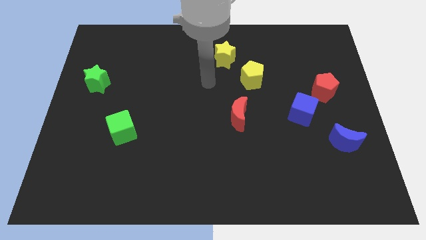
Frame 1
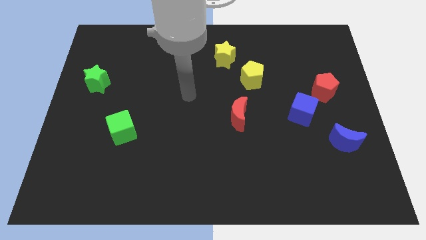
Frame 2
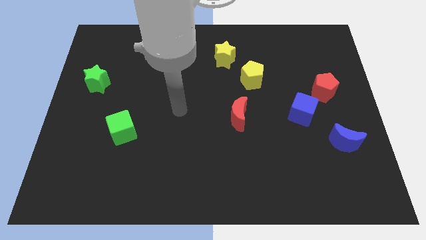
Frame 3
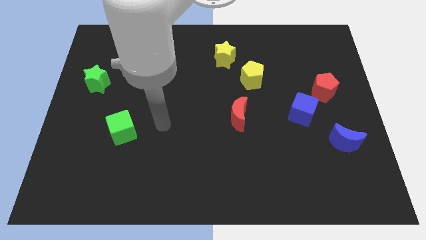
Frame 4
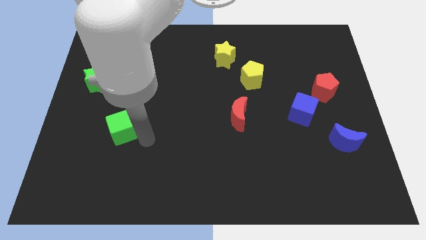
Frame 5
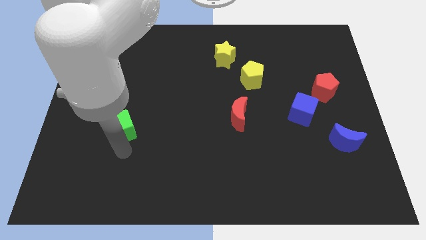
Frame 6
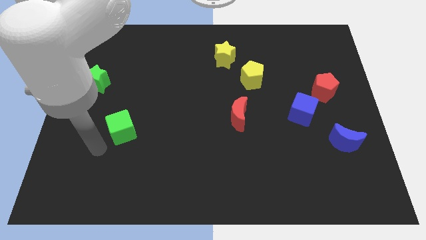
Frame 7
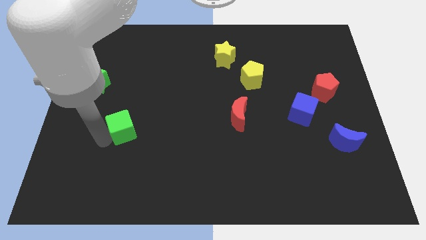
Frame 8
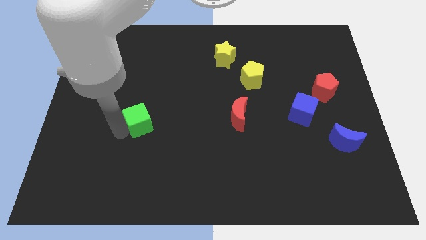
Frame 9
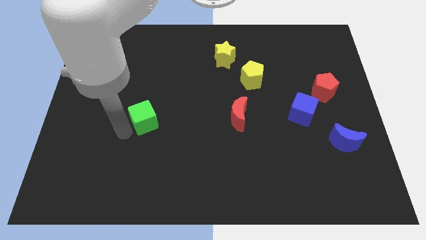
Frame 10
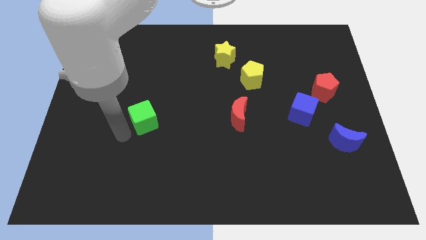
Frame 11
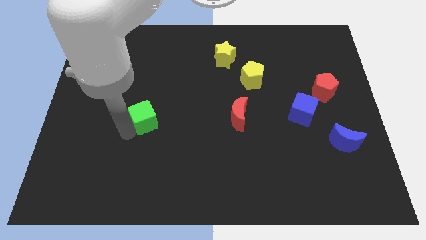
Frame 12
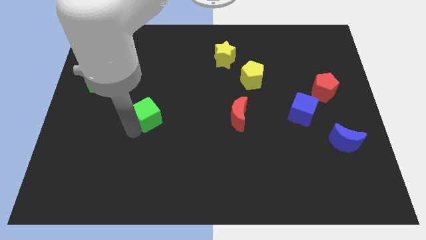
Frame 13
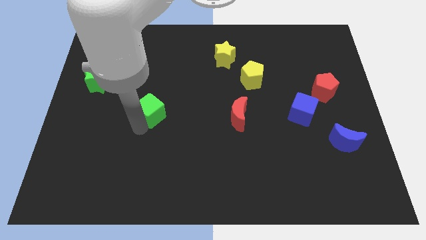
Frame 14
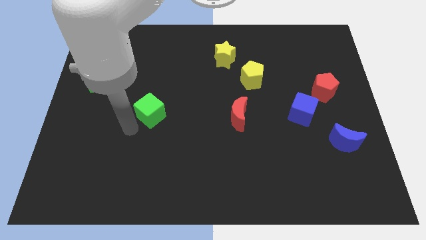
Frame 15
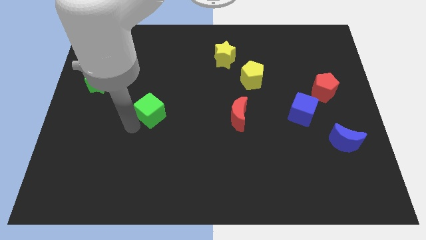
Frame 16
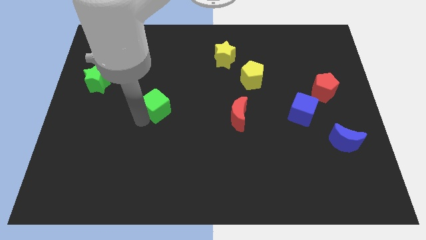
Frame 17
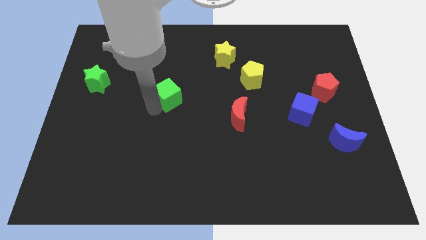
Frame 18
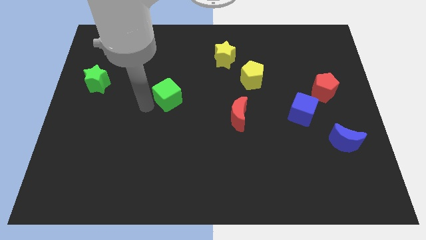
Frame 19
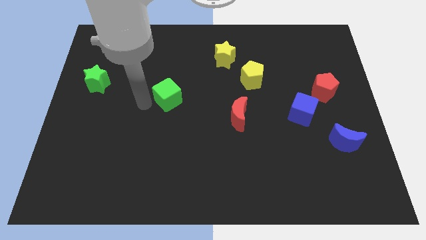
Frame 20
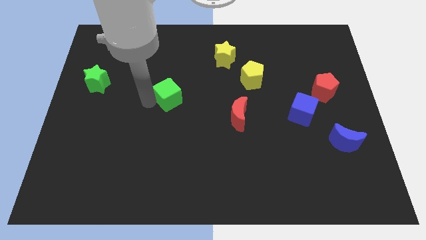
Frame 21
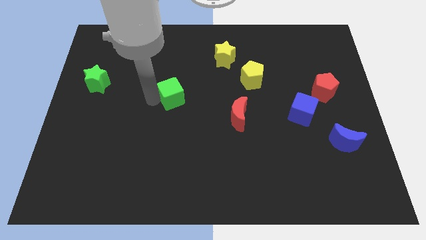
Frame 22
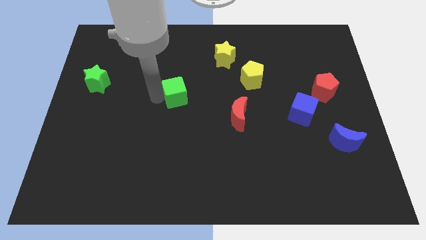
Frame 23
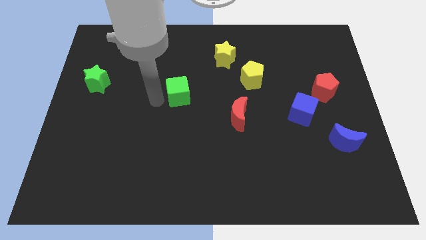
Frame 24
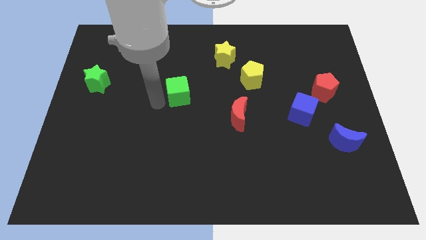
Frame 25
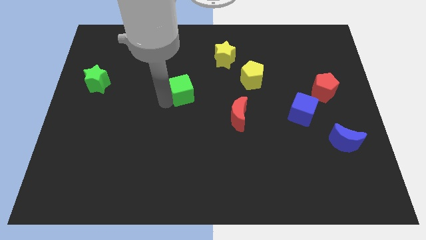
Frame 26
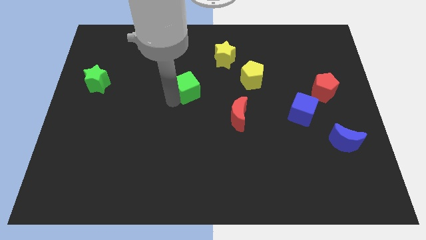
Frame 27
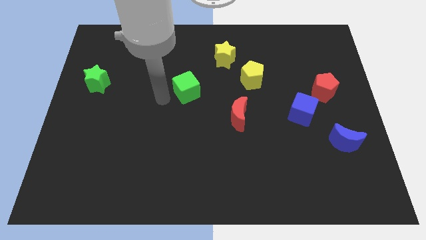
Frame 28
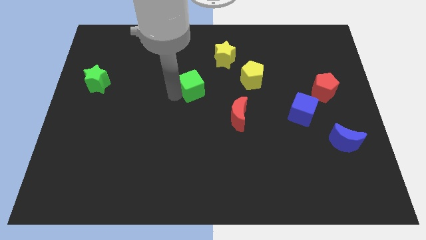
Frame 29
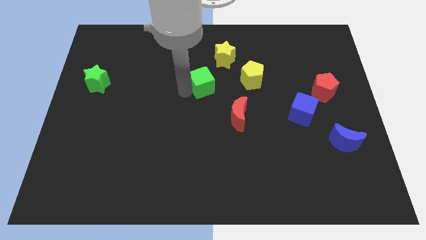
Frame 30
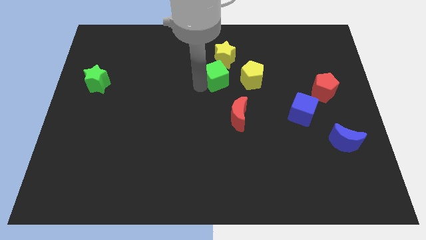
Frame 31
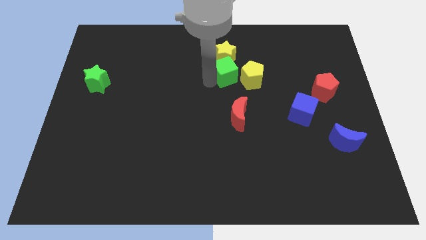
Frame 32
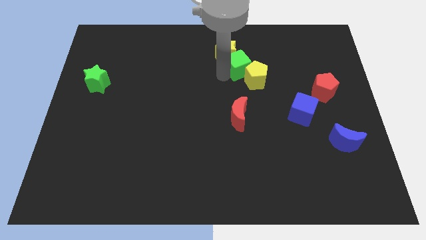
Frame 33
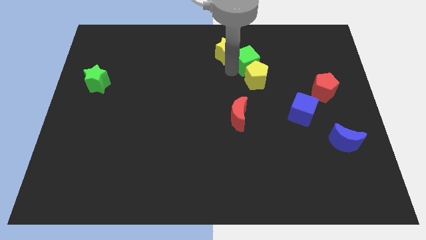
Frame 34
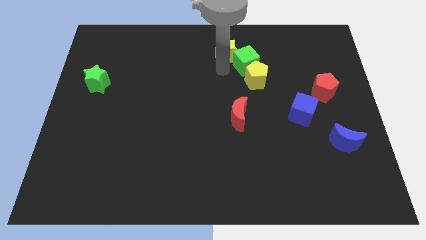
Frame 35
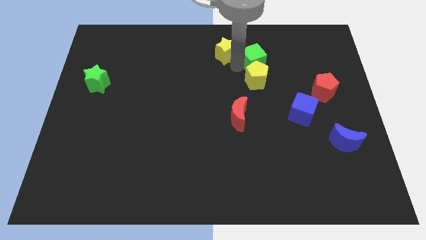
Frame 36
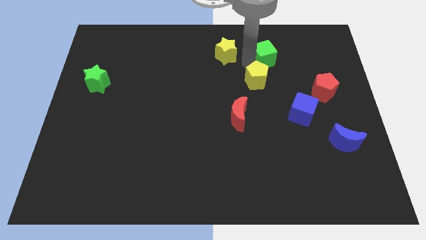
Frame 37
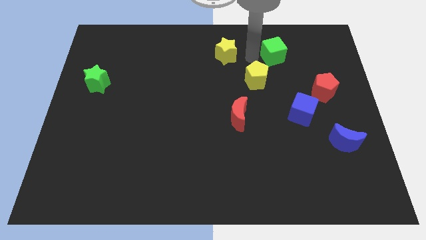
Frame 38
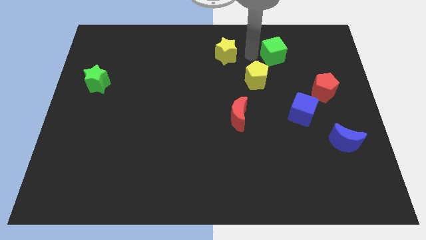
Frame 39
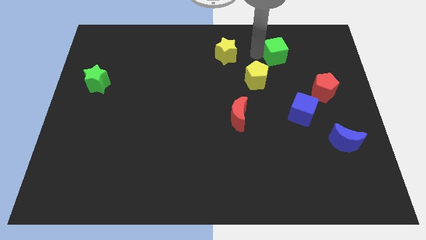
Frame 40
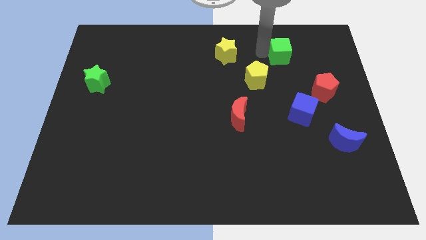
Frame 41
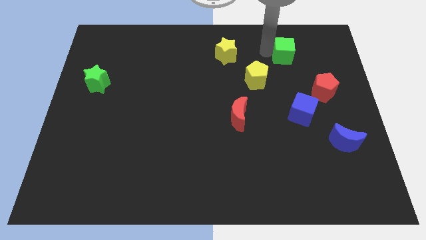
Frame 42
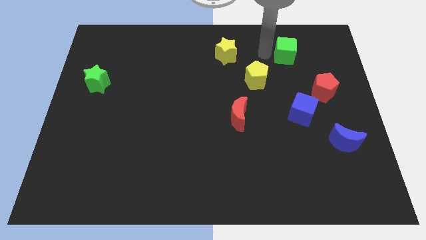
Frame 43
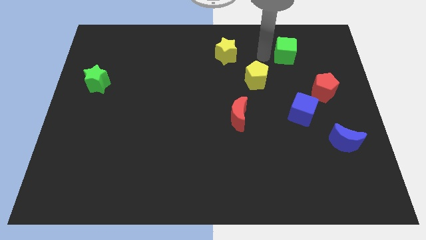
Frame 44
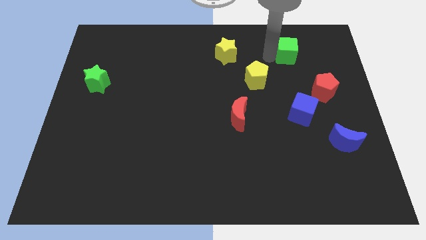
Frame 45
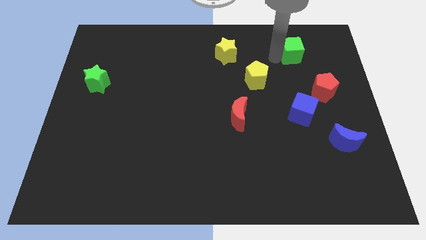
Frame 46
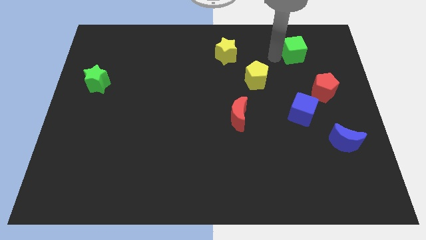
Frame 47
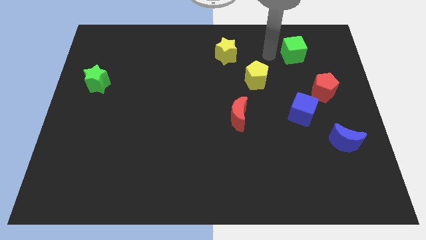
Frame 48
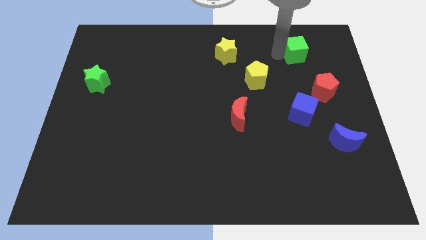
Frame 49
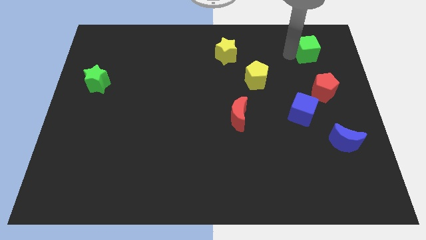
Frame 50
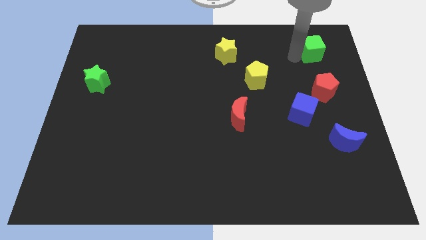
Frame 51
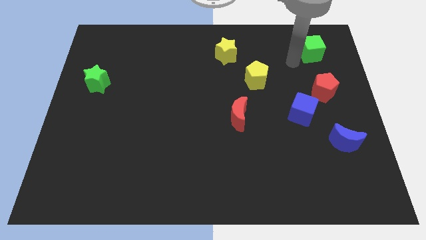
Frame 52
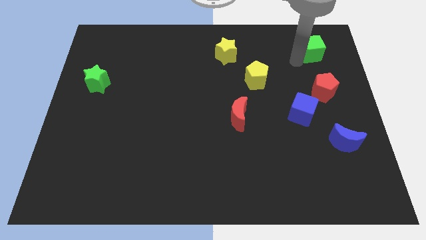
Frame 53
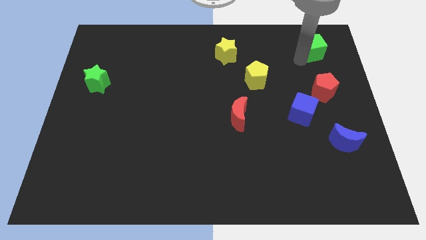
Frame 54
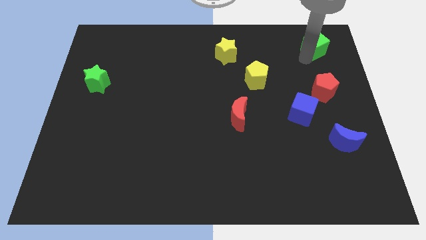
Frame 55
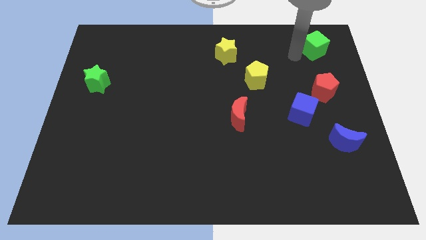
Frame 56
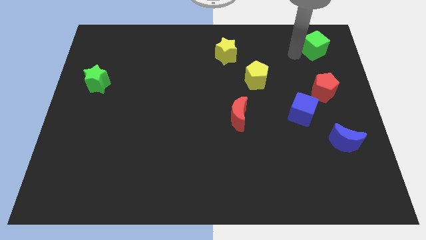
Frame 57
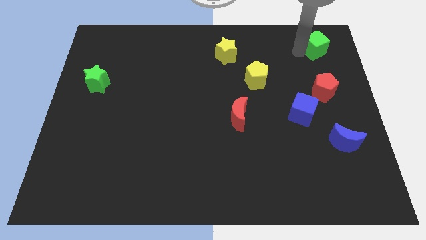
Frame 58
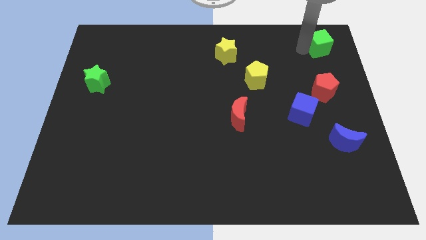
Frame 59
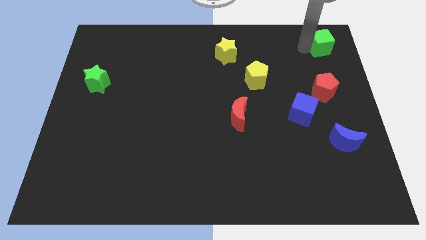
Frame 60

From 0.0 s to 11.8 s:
move the green cube to the top right
